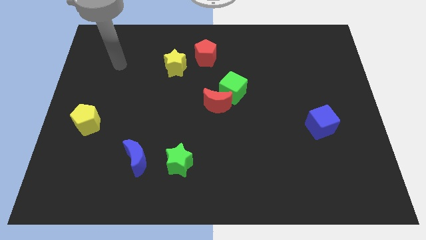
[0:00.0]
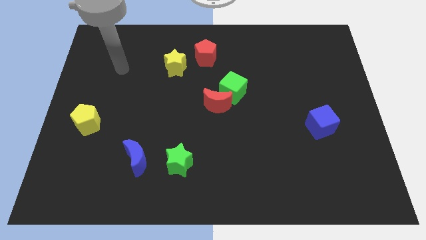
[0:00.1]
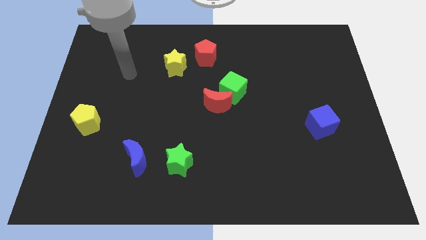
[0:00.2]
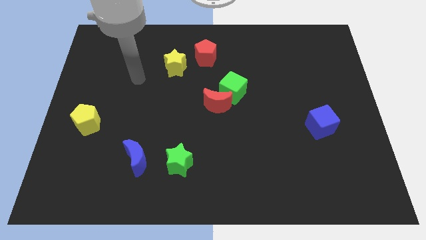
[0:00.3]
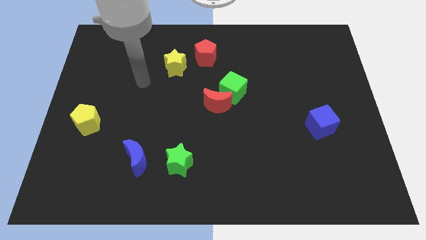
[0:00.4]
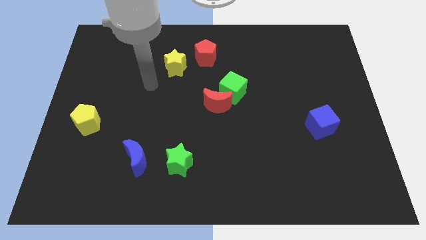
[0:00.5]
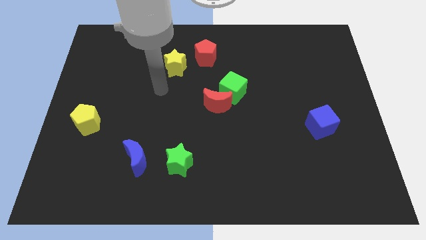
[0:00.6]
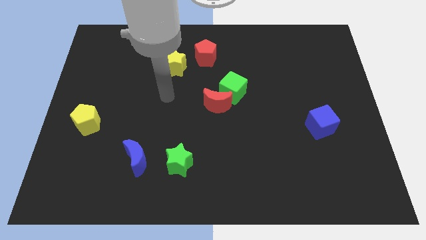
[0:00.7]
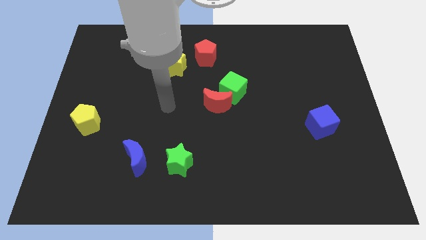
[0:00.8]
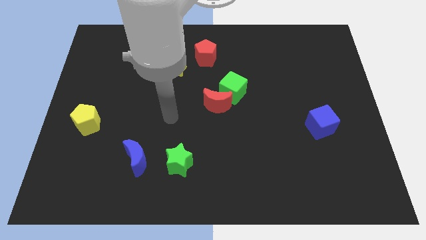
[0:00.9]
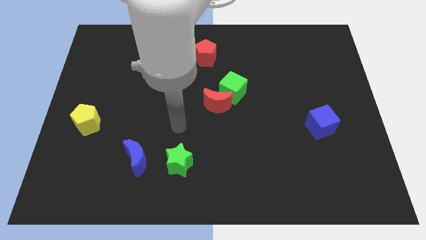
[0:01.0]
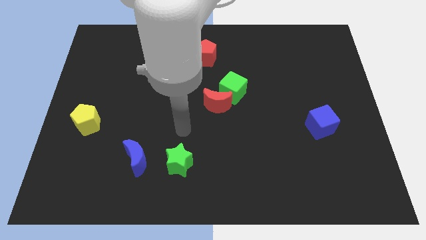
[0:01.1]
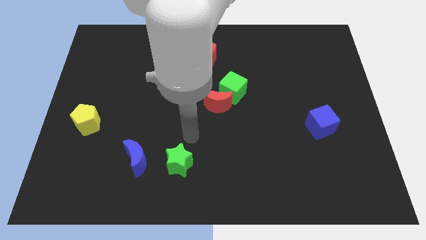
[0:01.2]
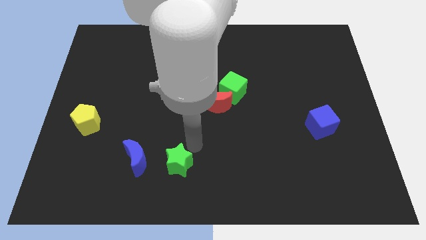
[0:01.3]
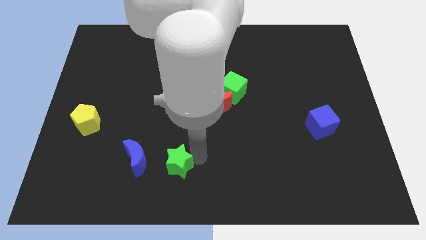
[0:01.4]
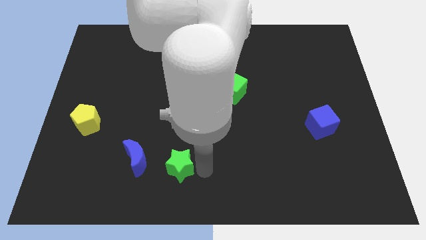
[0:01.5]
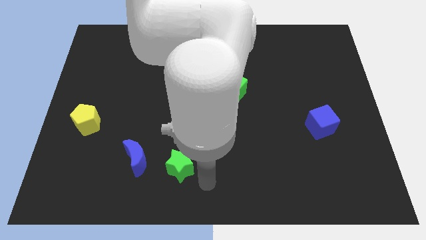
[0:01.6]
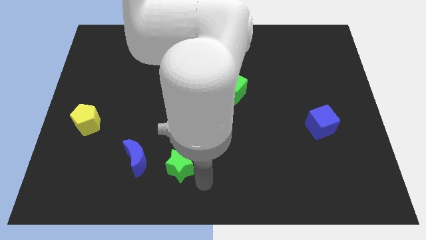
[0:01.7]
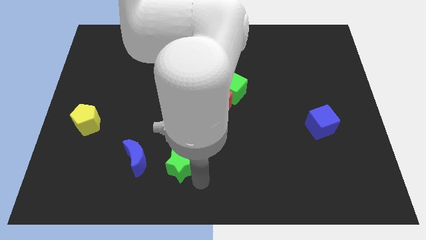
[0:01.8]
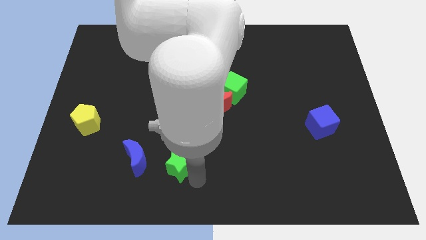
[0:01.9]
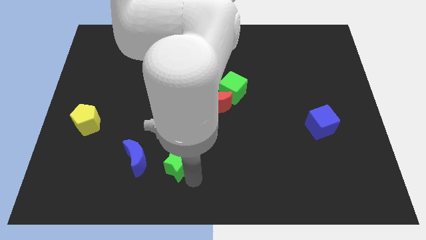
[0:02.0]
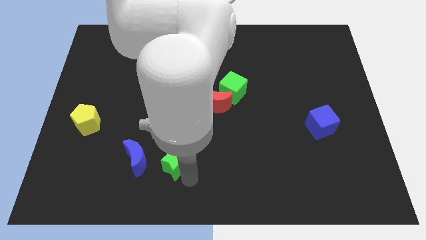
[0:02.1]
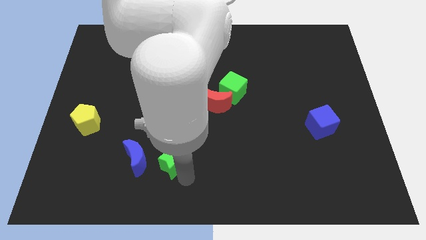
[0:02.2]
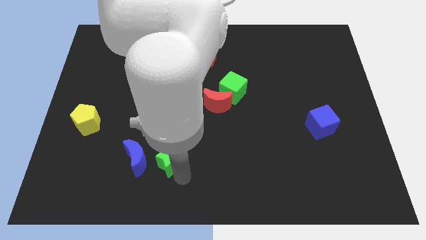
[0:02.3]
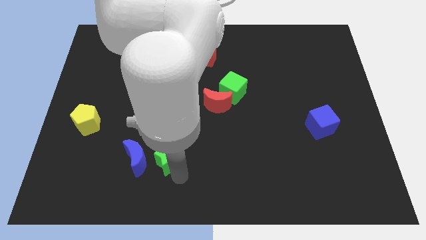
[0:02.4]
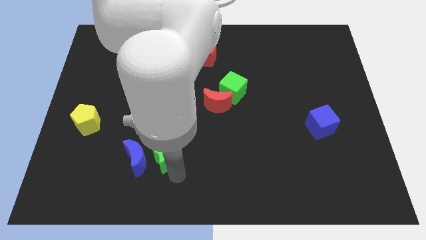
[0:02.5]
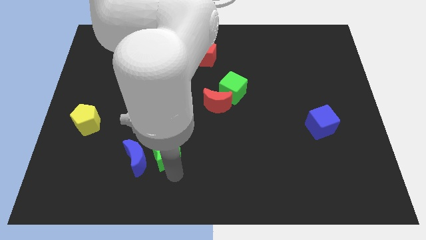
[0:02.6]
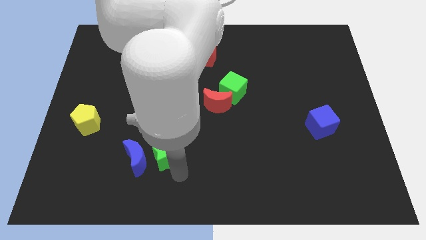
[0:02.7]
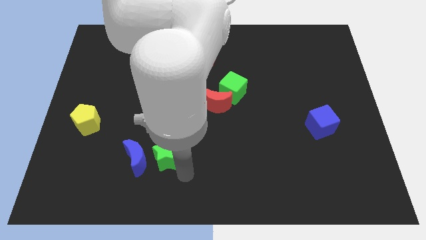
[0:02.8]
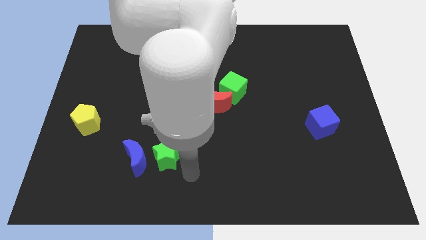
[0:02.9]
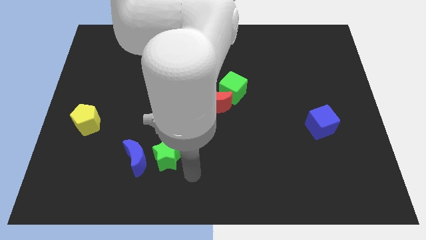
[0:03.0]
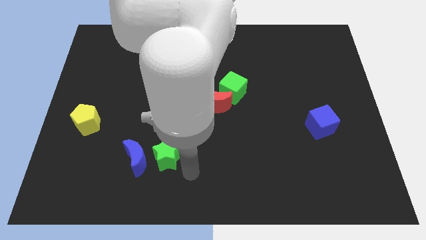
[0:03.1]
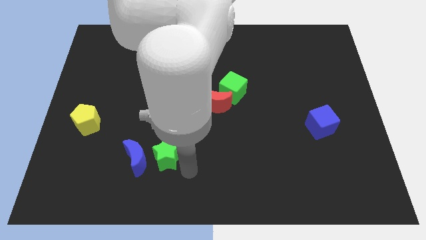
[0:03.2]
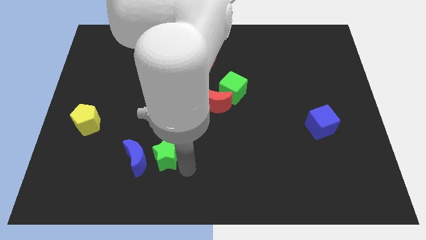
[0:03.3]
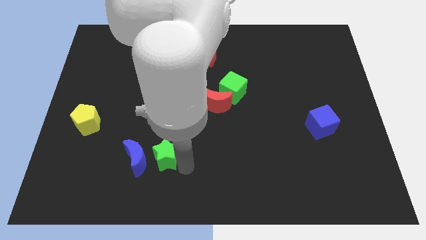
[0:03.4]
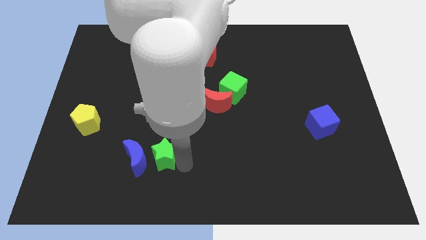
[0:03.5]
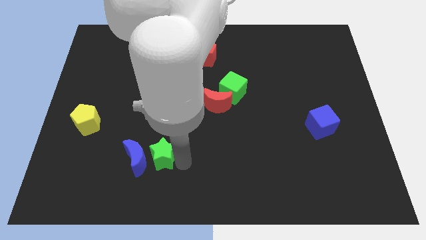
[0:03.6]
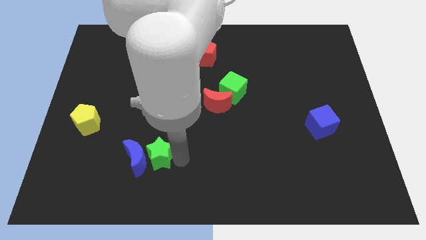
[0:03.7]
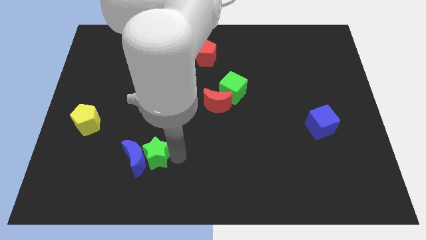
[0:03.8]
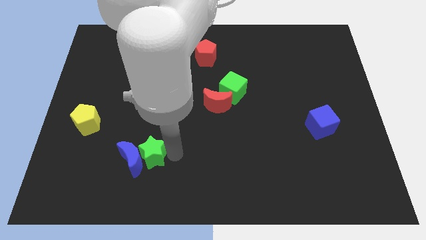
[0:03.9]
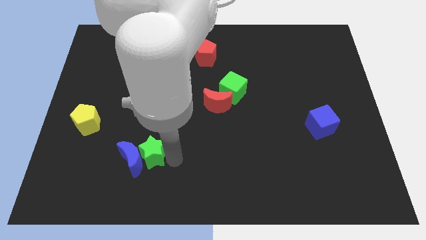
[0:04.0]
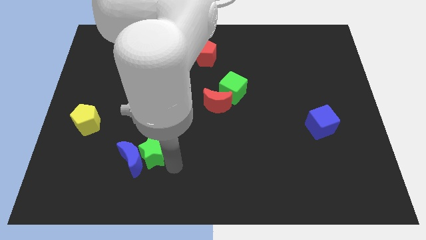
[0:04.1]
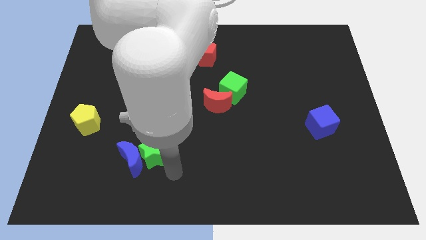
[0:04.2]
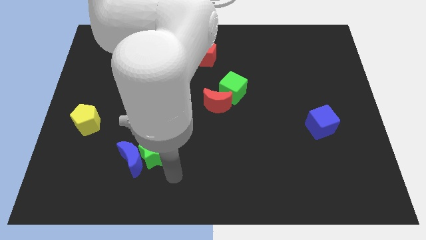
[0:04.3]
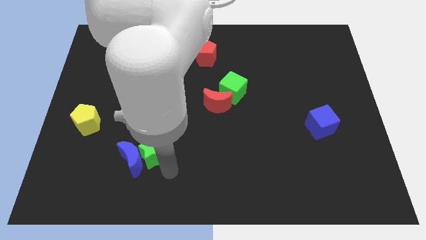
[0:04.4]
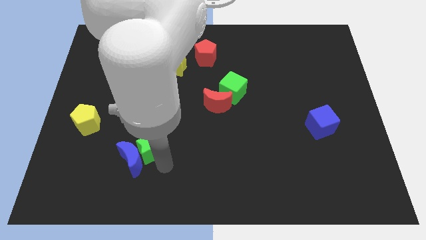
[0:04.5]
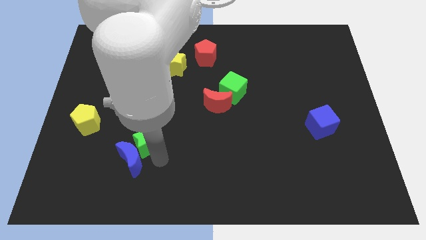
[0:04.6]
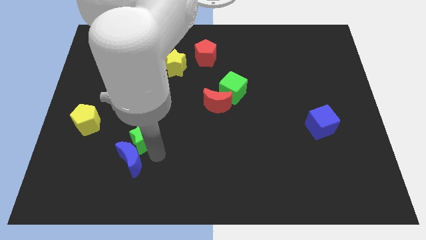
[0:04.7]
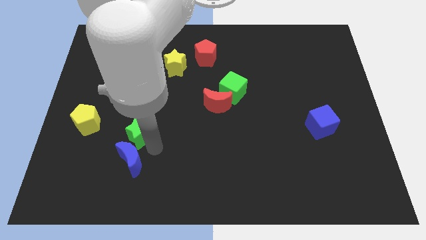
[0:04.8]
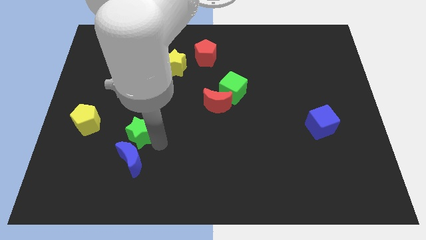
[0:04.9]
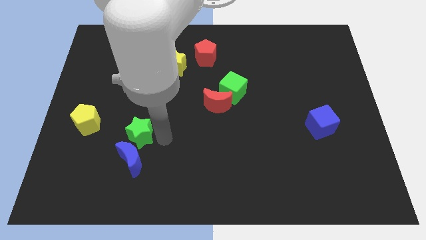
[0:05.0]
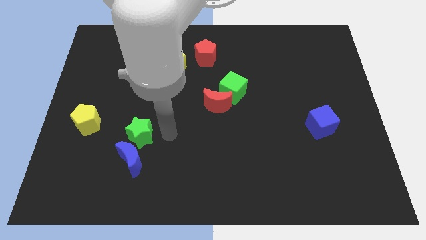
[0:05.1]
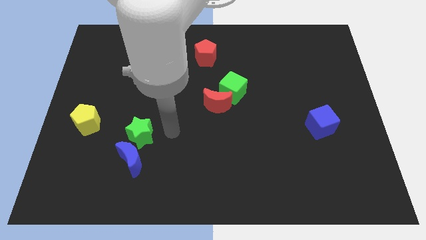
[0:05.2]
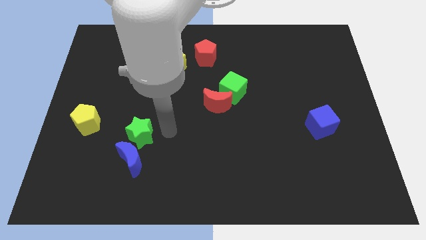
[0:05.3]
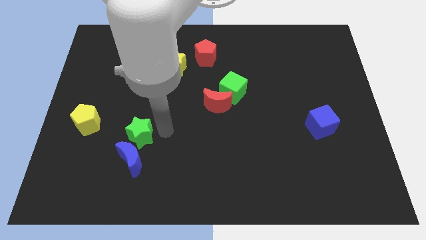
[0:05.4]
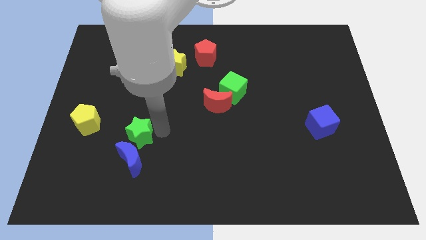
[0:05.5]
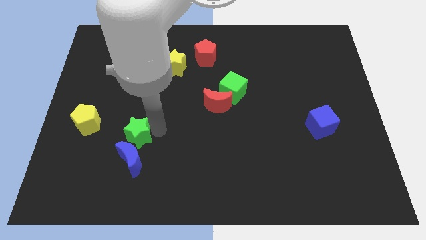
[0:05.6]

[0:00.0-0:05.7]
push the green star to the top left of the blue moon

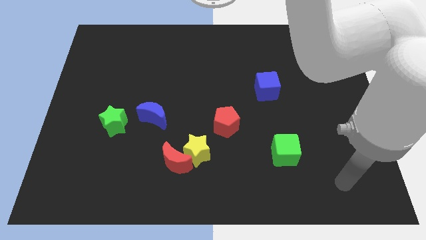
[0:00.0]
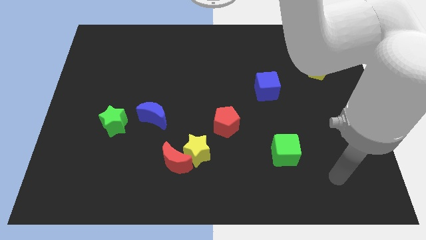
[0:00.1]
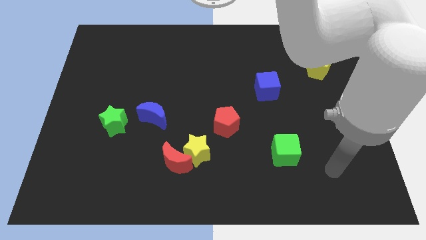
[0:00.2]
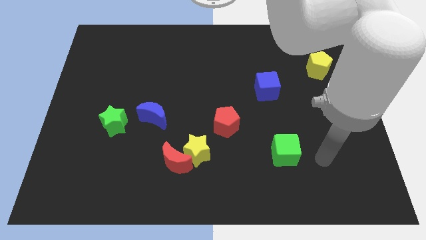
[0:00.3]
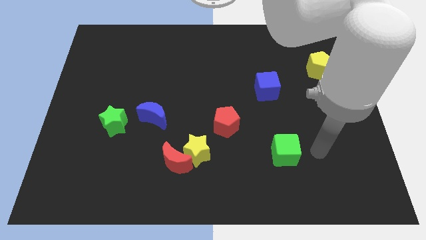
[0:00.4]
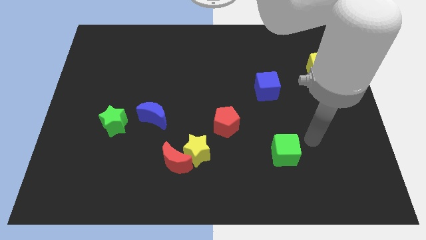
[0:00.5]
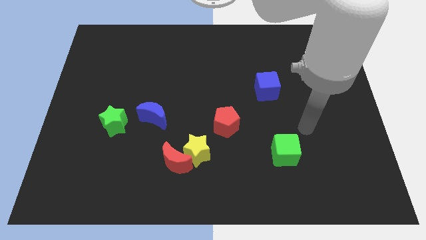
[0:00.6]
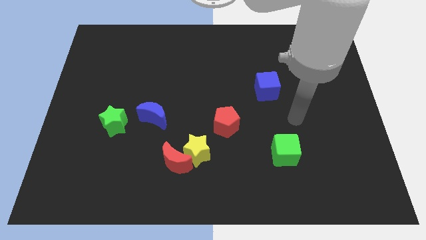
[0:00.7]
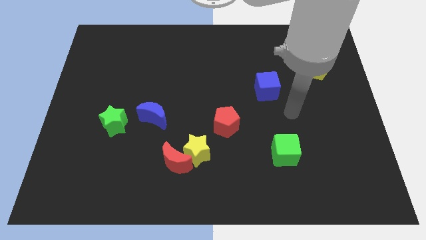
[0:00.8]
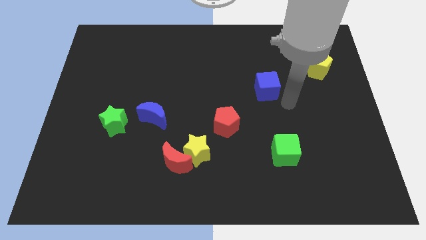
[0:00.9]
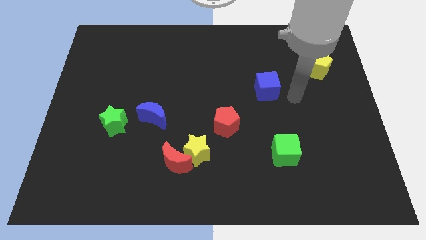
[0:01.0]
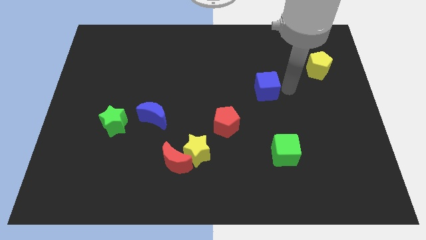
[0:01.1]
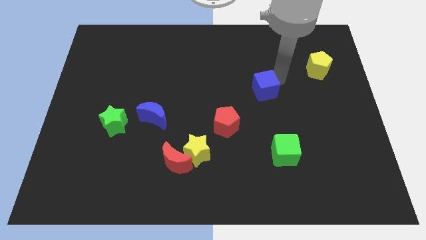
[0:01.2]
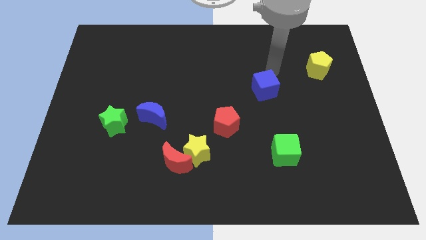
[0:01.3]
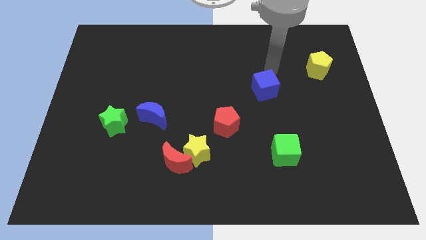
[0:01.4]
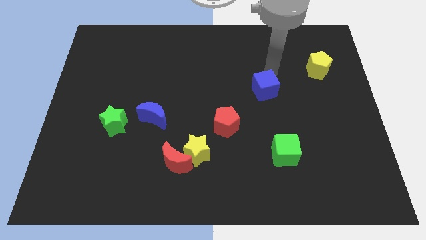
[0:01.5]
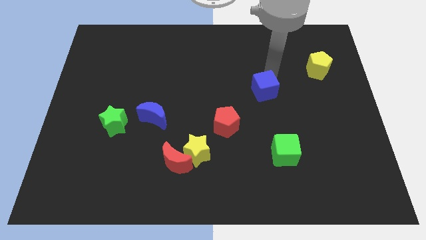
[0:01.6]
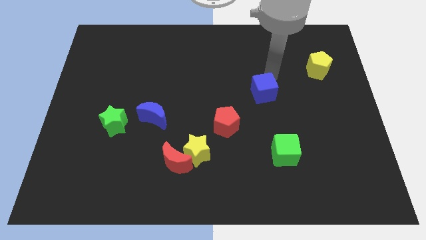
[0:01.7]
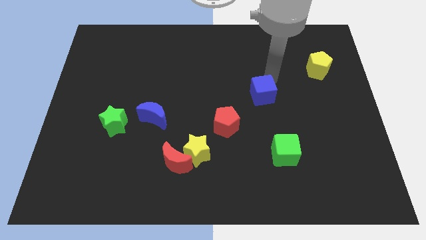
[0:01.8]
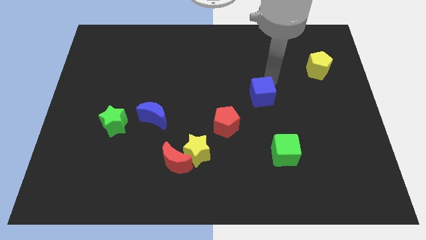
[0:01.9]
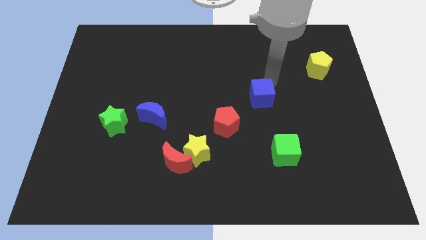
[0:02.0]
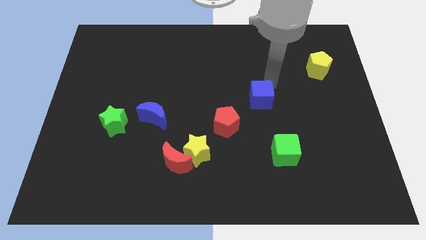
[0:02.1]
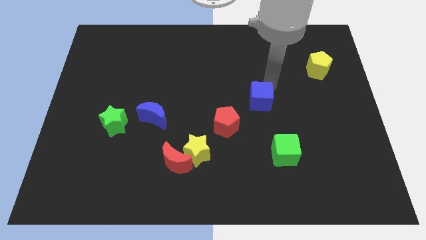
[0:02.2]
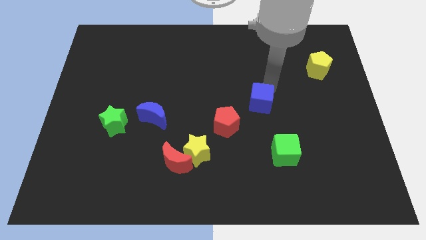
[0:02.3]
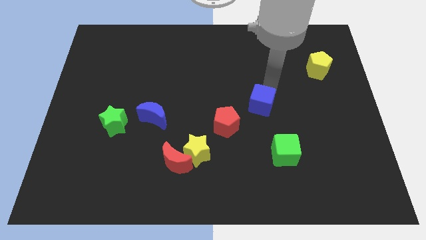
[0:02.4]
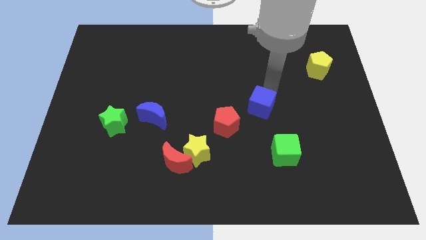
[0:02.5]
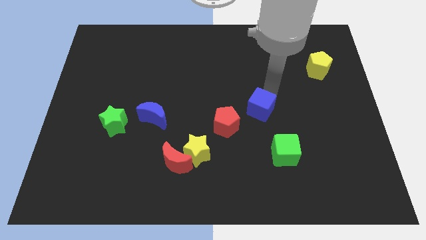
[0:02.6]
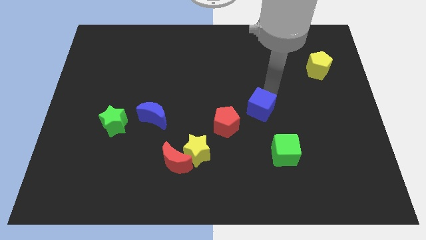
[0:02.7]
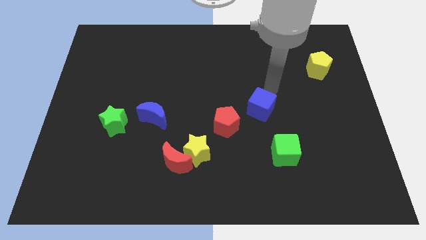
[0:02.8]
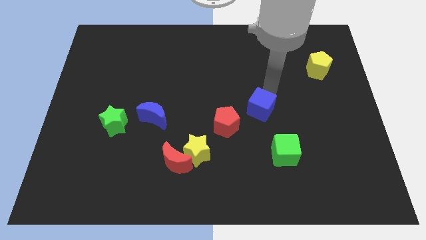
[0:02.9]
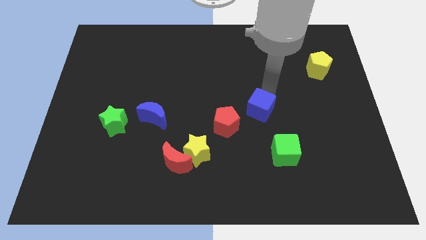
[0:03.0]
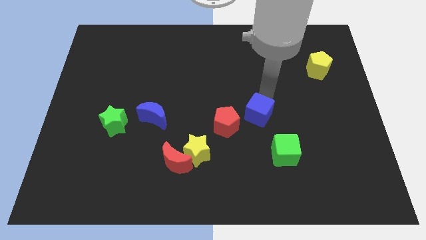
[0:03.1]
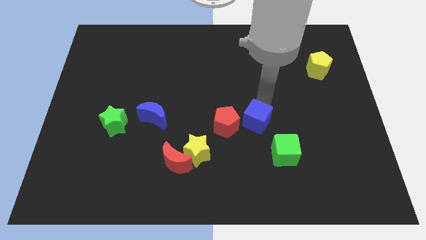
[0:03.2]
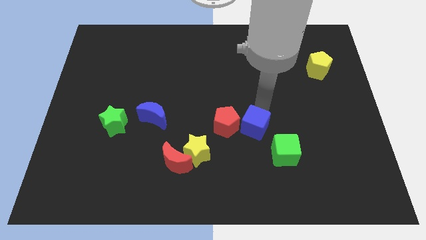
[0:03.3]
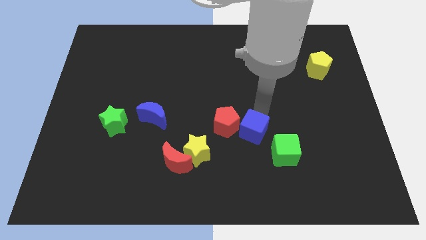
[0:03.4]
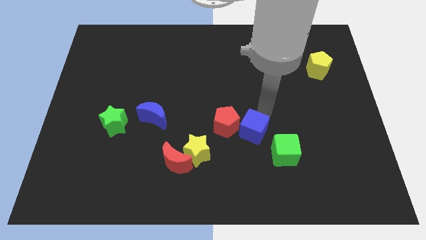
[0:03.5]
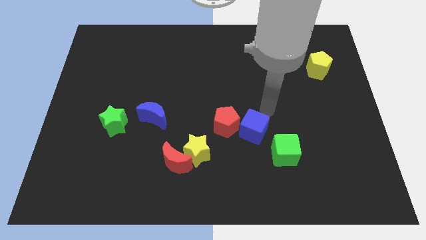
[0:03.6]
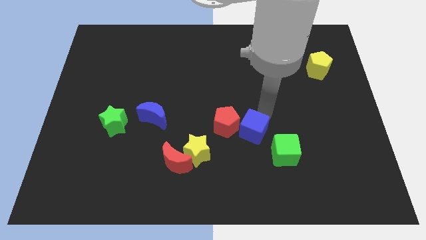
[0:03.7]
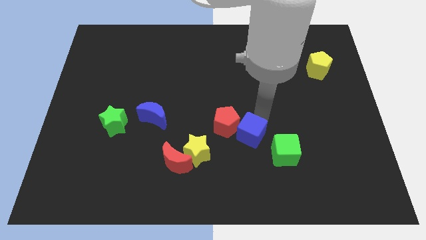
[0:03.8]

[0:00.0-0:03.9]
put the blue cube to the left side of the green cube
